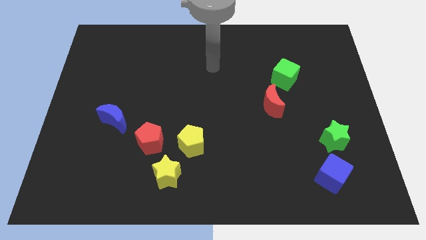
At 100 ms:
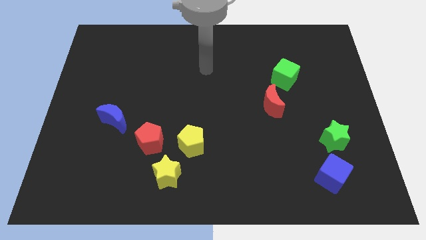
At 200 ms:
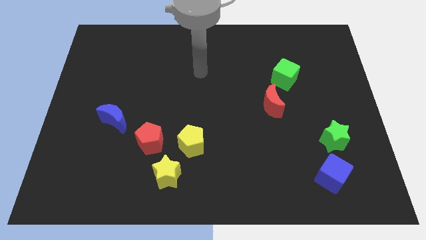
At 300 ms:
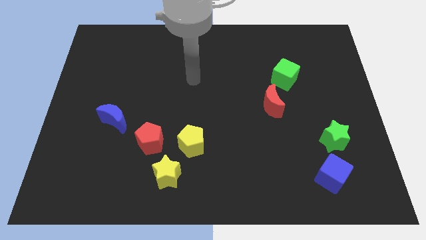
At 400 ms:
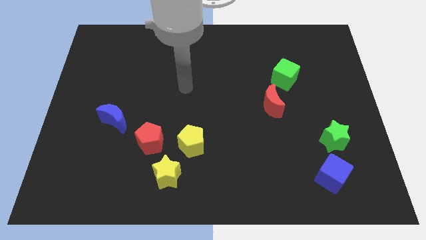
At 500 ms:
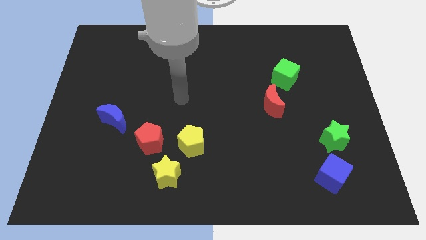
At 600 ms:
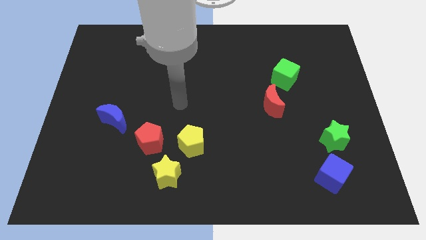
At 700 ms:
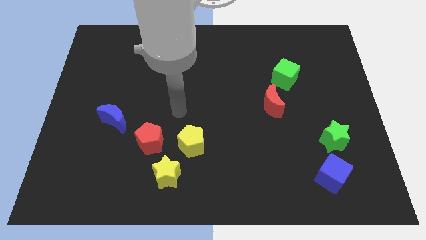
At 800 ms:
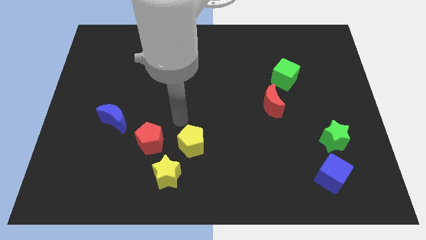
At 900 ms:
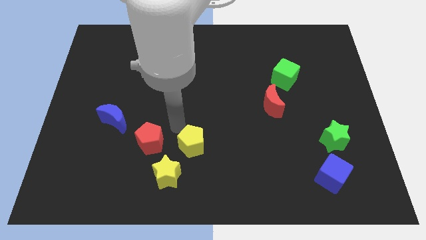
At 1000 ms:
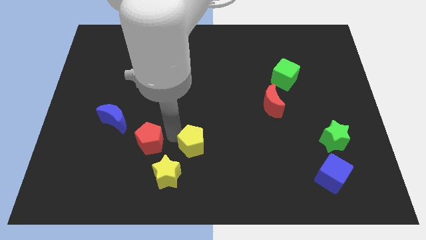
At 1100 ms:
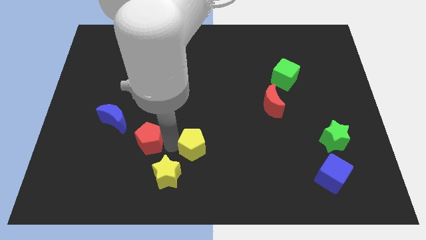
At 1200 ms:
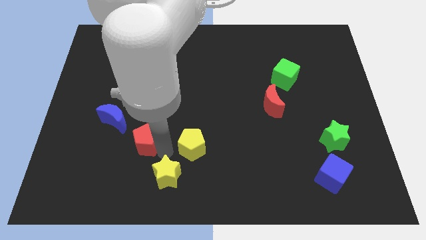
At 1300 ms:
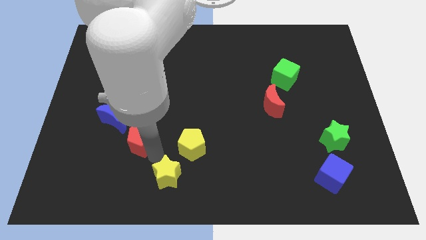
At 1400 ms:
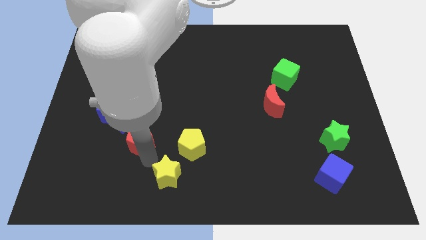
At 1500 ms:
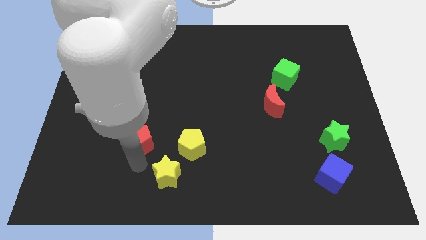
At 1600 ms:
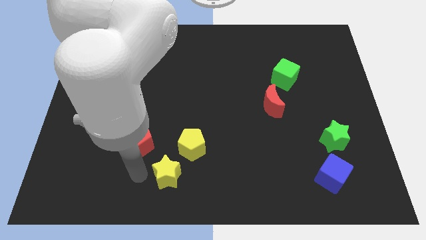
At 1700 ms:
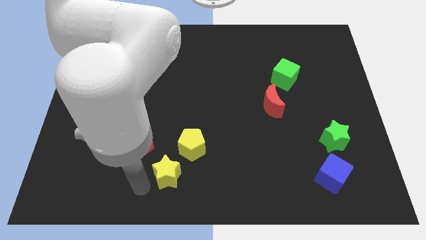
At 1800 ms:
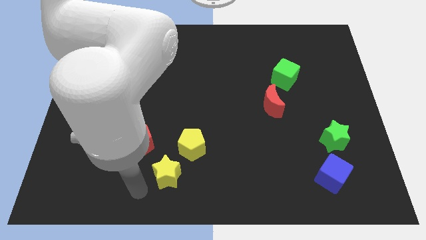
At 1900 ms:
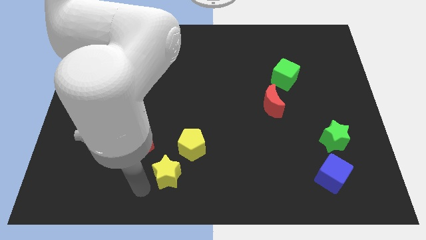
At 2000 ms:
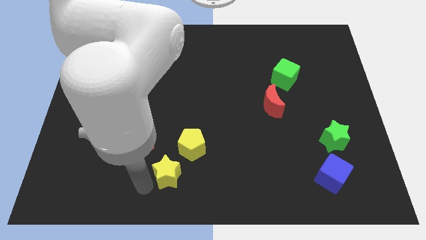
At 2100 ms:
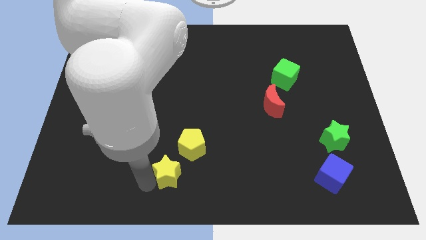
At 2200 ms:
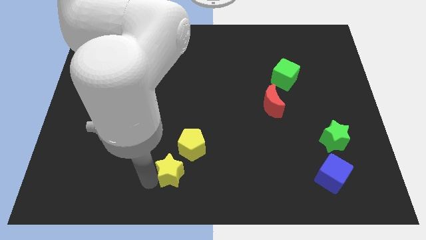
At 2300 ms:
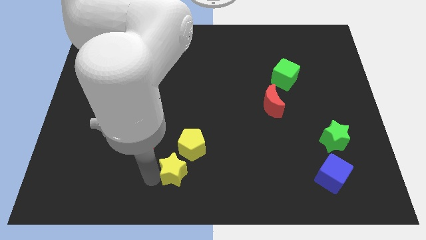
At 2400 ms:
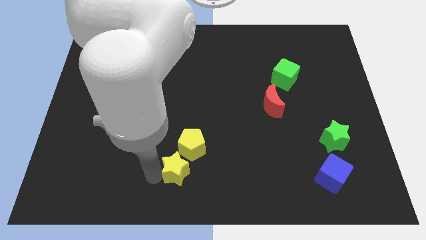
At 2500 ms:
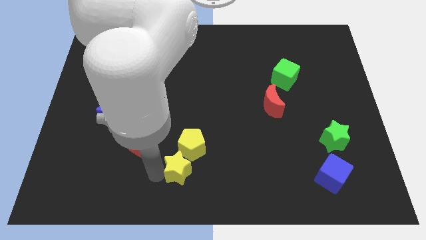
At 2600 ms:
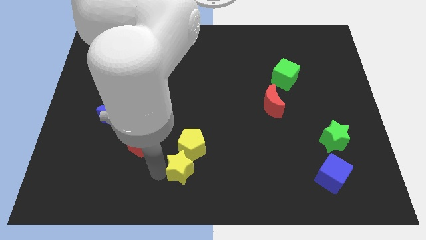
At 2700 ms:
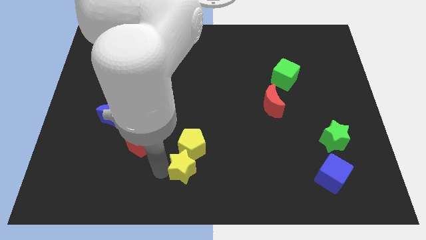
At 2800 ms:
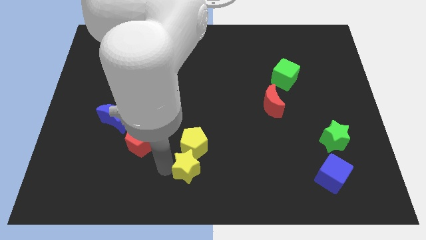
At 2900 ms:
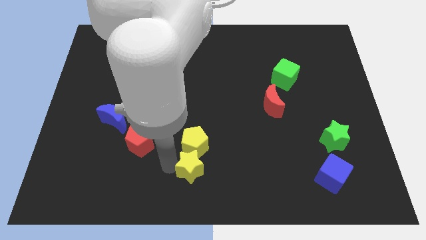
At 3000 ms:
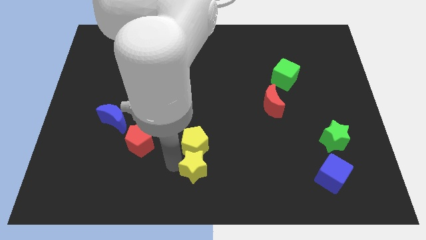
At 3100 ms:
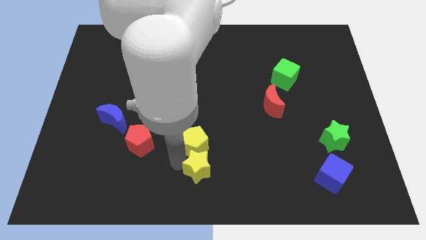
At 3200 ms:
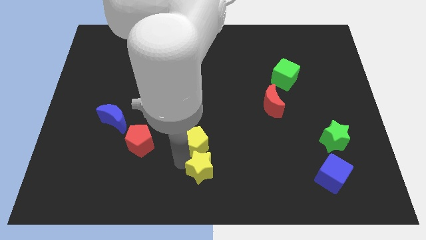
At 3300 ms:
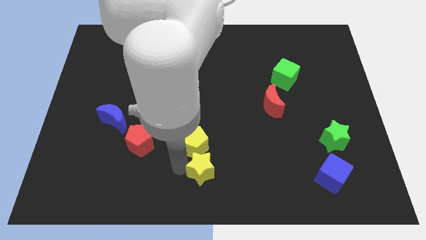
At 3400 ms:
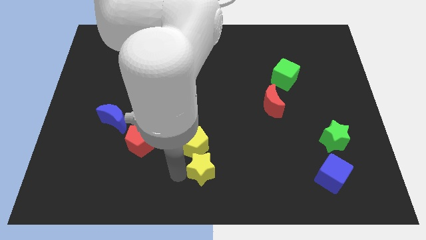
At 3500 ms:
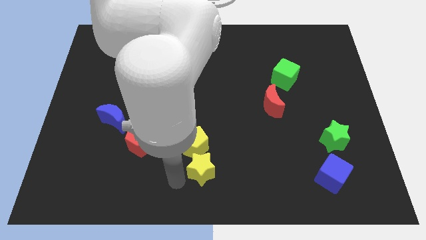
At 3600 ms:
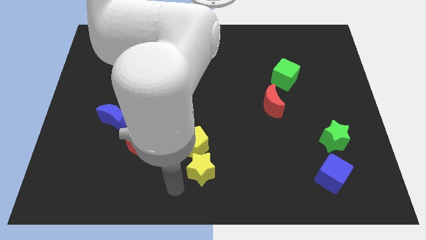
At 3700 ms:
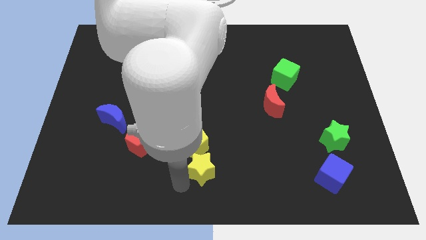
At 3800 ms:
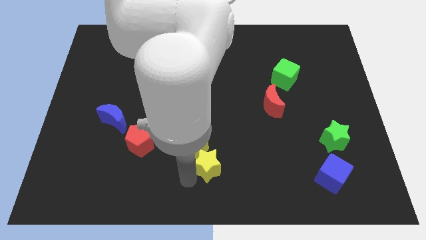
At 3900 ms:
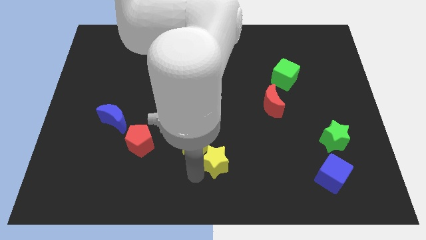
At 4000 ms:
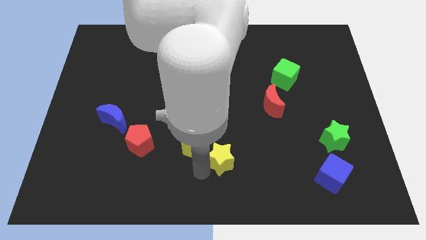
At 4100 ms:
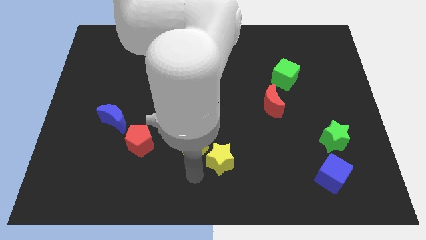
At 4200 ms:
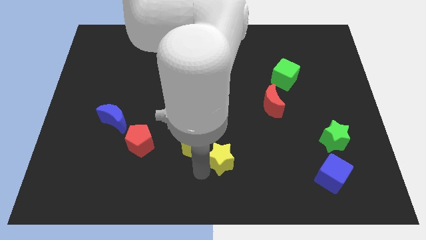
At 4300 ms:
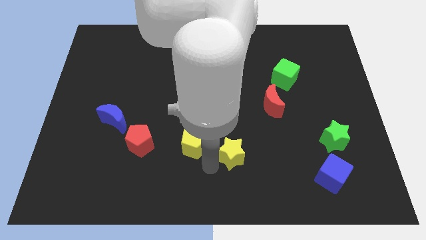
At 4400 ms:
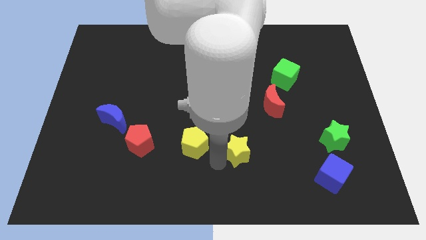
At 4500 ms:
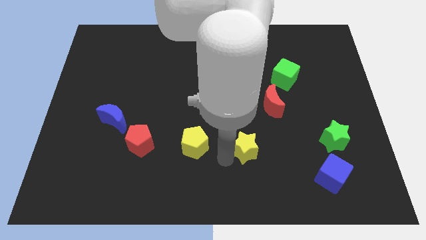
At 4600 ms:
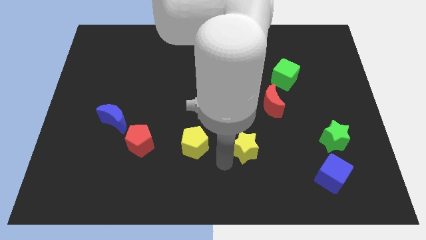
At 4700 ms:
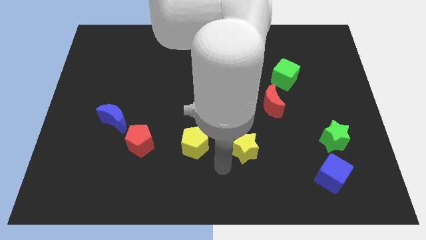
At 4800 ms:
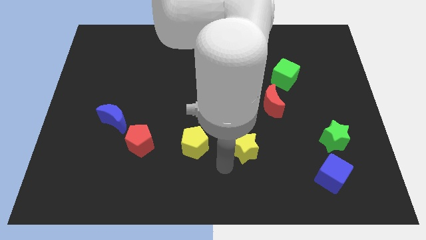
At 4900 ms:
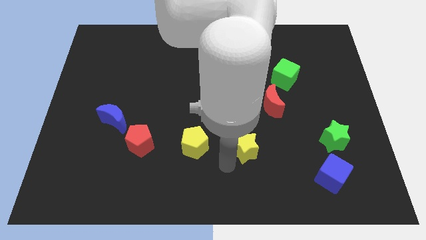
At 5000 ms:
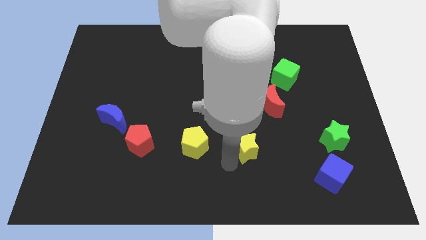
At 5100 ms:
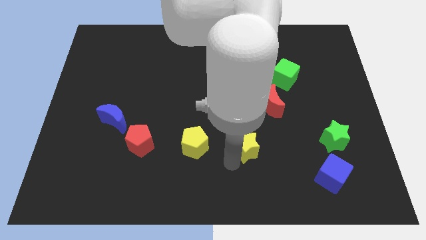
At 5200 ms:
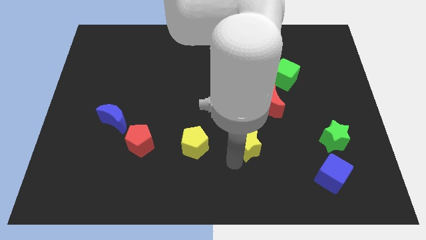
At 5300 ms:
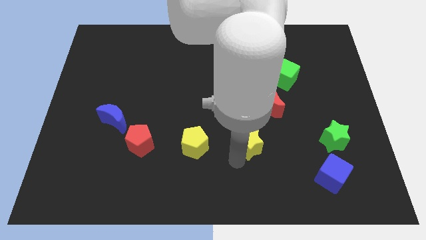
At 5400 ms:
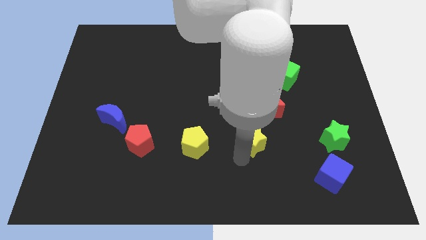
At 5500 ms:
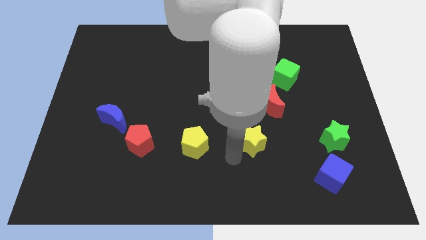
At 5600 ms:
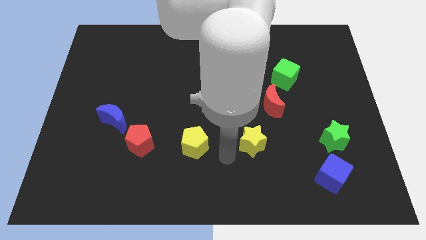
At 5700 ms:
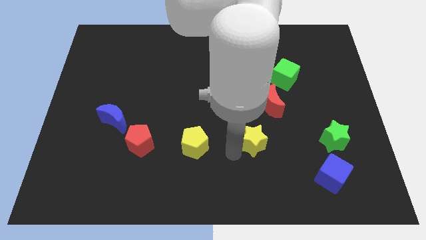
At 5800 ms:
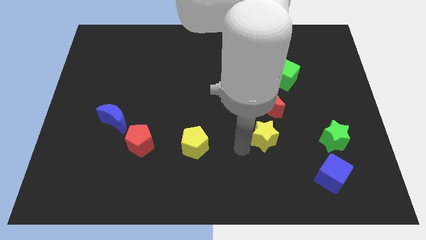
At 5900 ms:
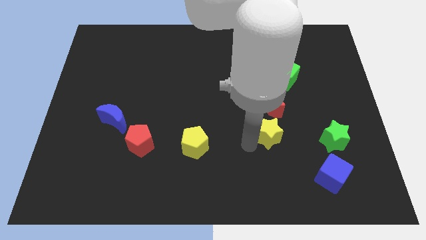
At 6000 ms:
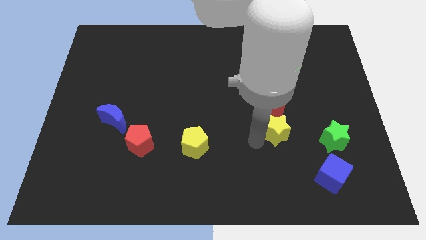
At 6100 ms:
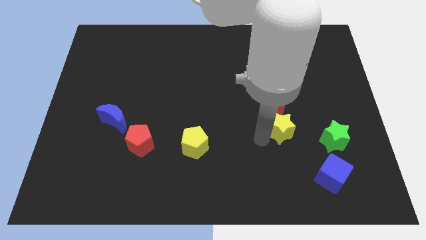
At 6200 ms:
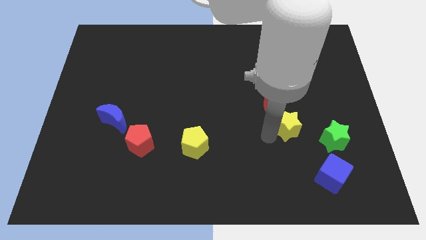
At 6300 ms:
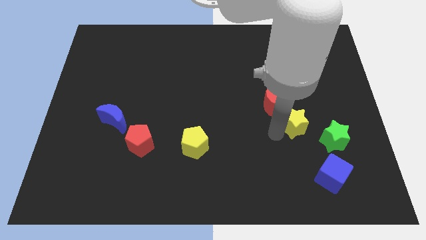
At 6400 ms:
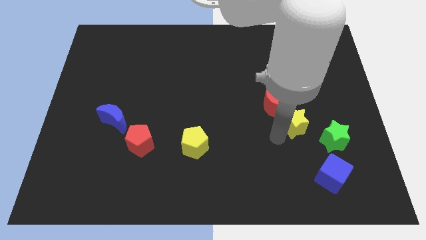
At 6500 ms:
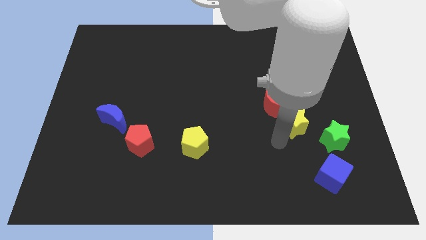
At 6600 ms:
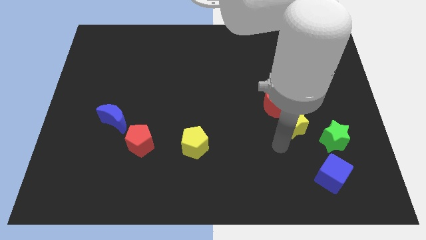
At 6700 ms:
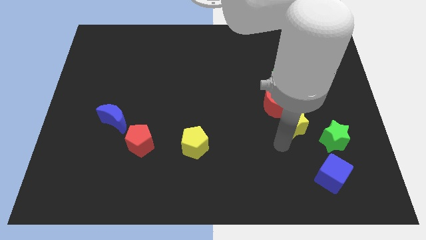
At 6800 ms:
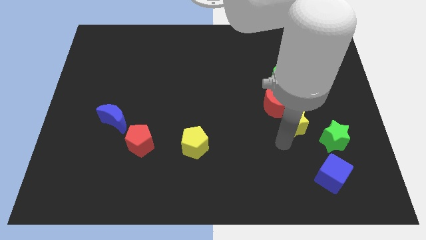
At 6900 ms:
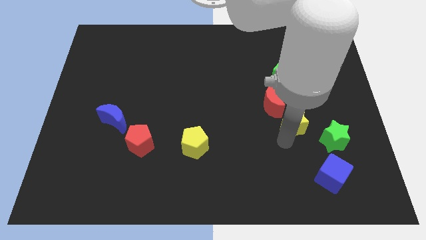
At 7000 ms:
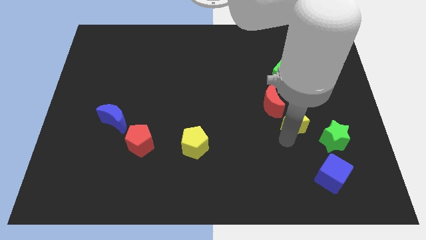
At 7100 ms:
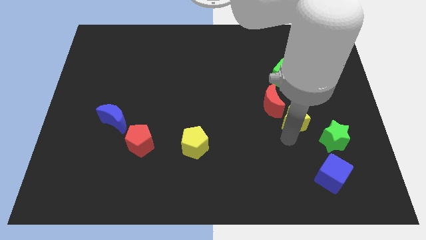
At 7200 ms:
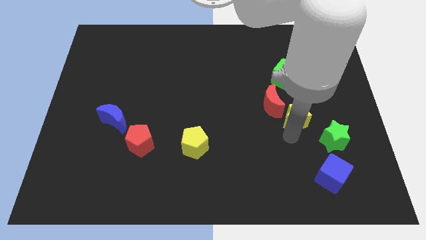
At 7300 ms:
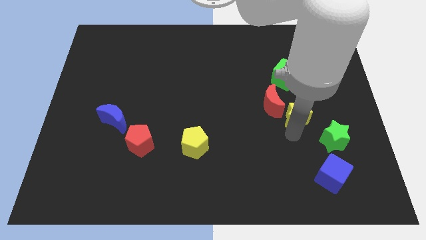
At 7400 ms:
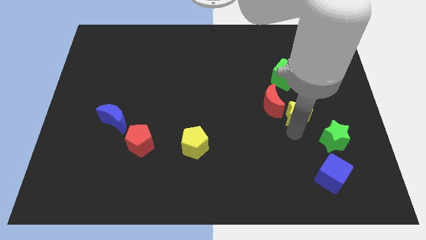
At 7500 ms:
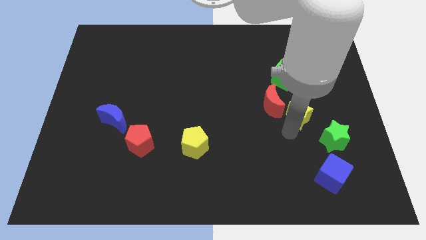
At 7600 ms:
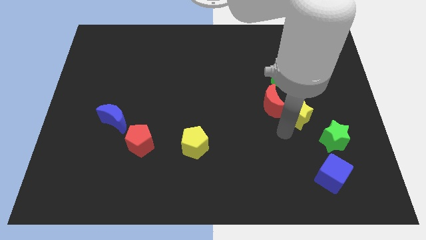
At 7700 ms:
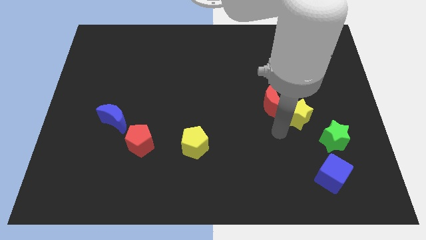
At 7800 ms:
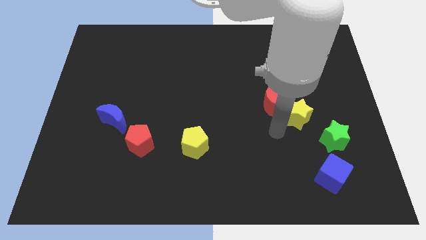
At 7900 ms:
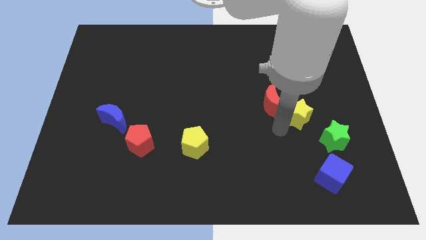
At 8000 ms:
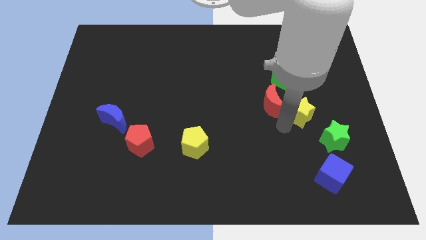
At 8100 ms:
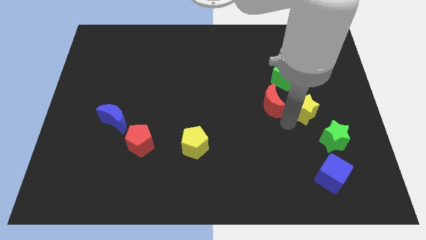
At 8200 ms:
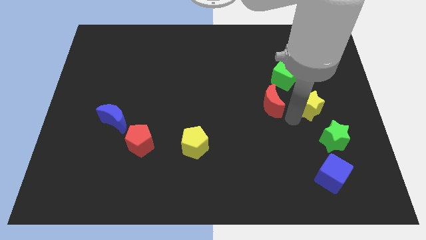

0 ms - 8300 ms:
push the yellow star to the top side of the green star
